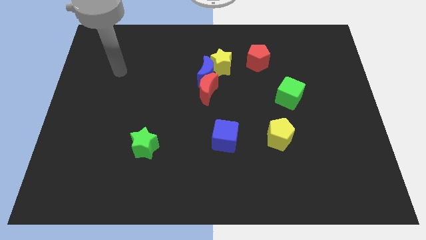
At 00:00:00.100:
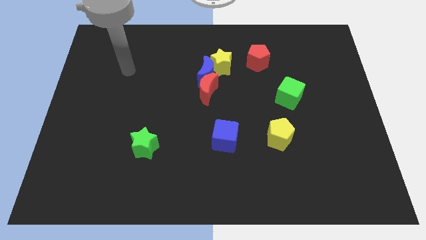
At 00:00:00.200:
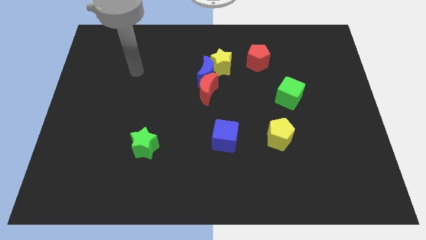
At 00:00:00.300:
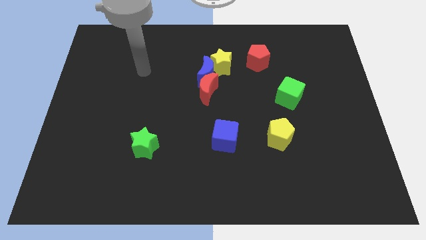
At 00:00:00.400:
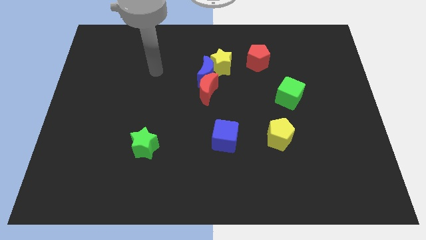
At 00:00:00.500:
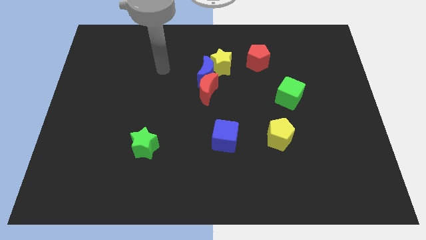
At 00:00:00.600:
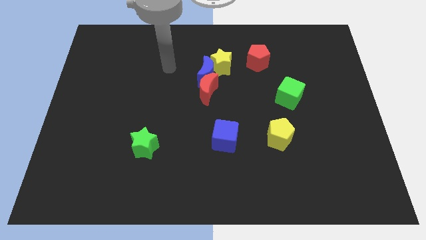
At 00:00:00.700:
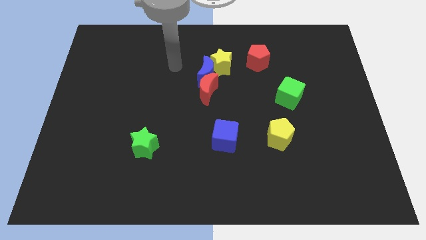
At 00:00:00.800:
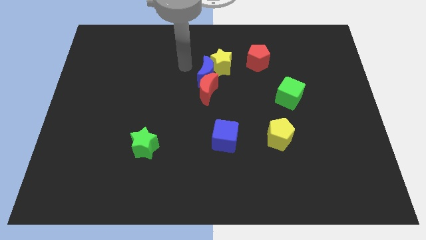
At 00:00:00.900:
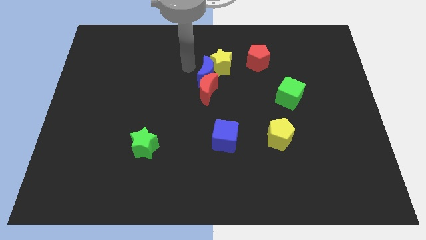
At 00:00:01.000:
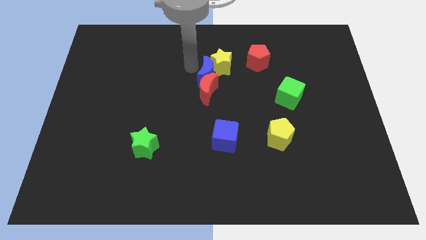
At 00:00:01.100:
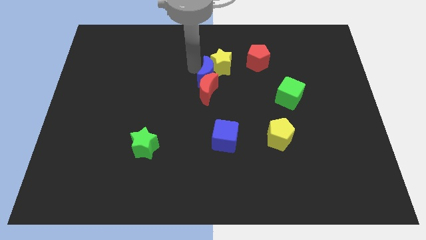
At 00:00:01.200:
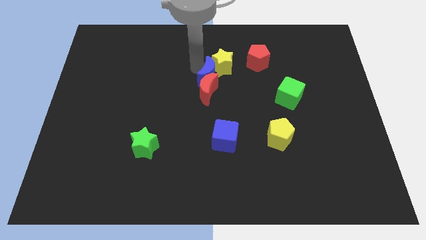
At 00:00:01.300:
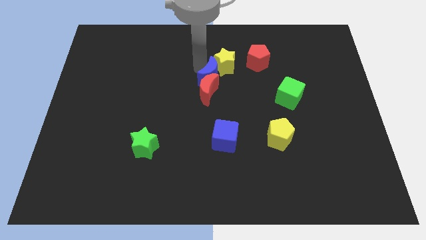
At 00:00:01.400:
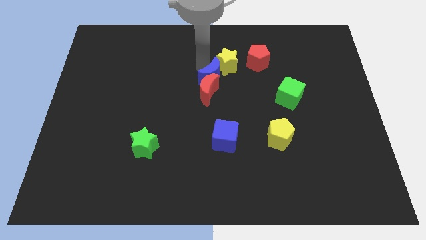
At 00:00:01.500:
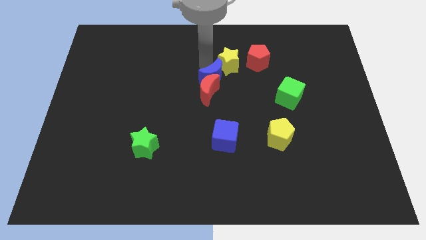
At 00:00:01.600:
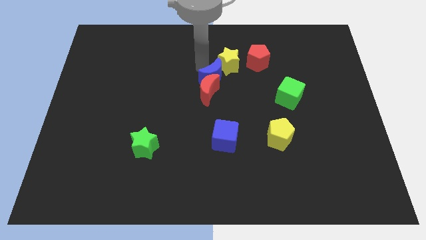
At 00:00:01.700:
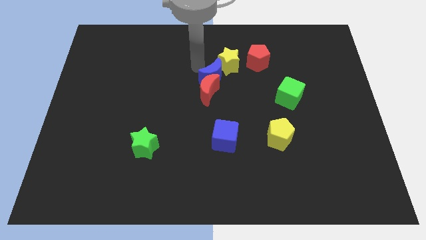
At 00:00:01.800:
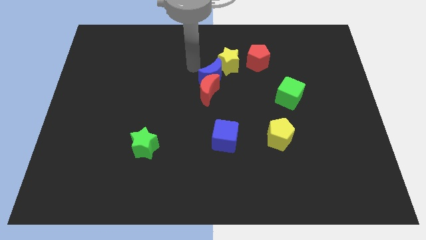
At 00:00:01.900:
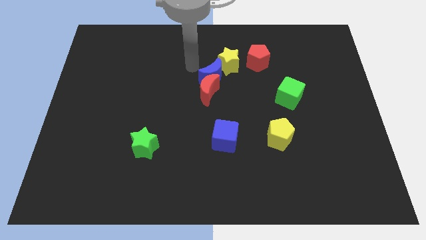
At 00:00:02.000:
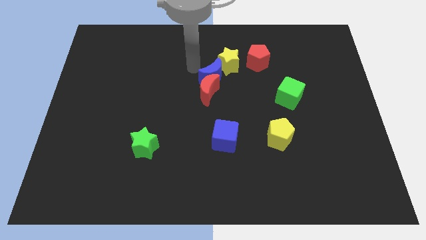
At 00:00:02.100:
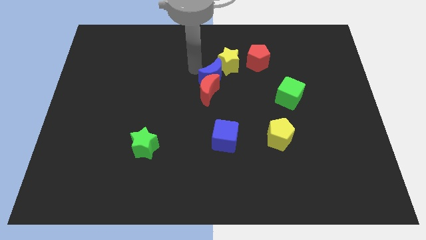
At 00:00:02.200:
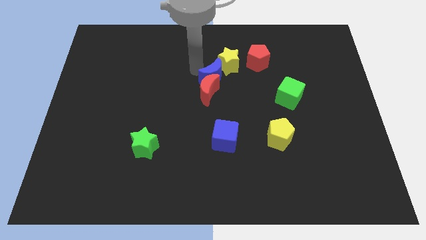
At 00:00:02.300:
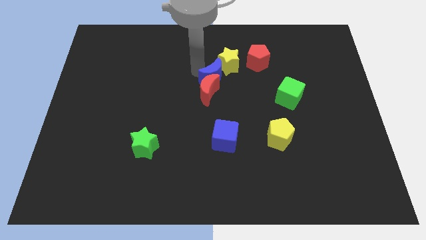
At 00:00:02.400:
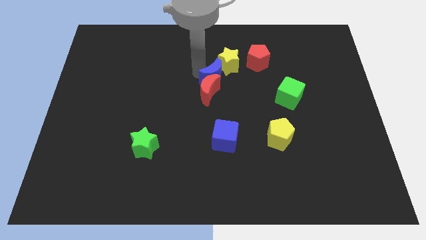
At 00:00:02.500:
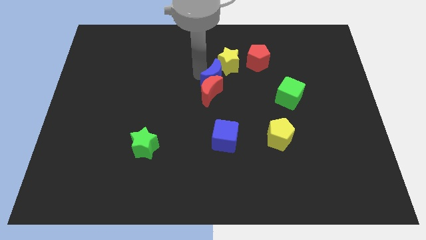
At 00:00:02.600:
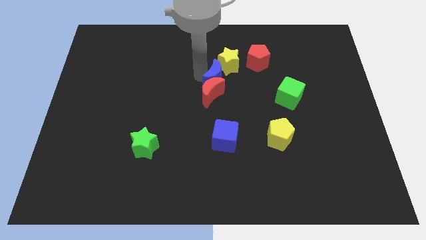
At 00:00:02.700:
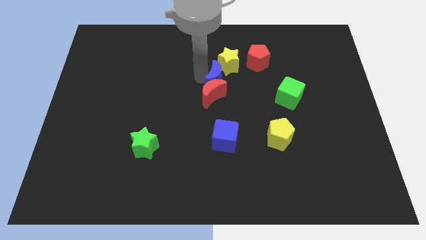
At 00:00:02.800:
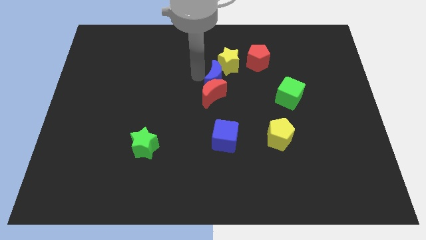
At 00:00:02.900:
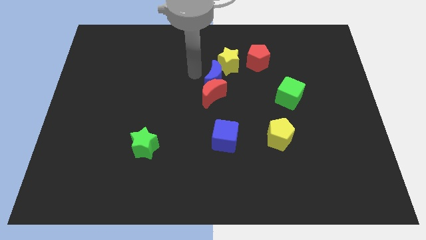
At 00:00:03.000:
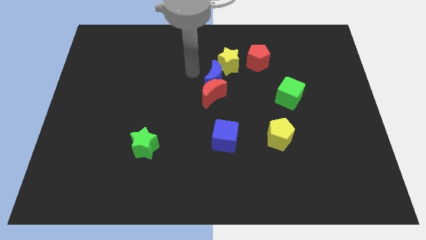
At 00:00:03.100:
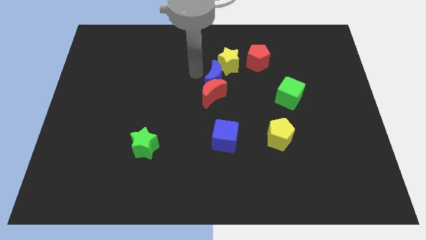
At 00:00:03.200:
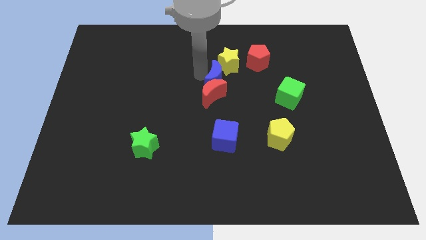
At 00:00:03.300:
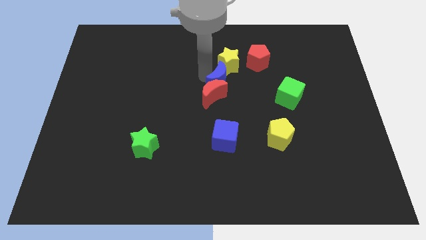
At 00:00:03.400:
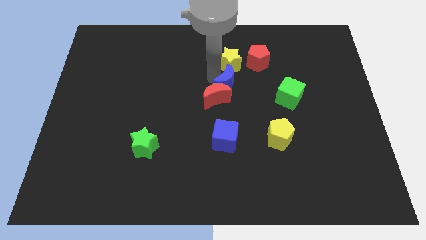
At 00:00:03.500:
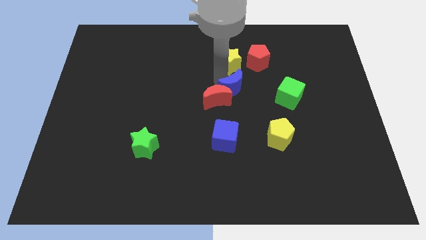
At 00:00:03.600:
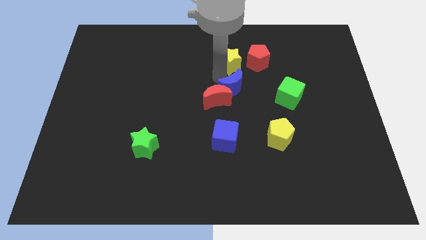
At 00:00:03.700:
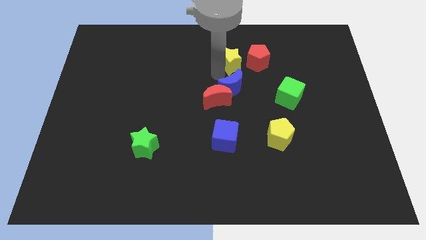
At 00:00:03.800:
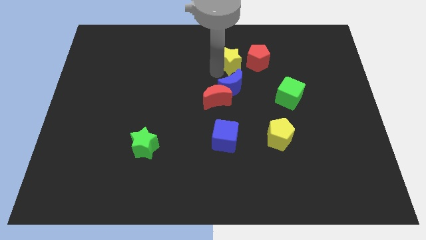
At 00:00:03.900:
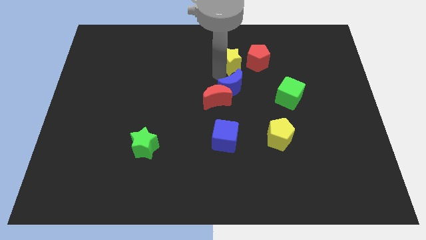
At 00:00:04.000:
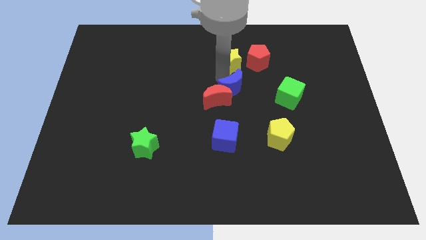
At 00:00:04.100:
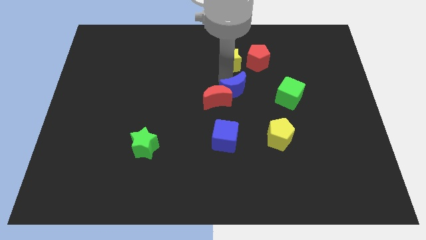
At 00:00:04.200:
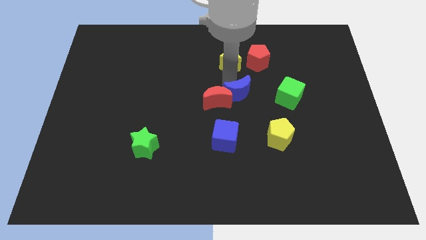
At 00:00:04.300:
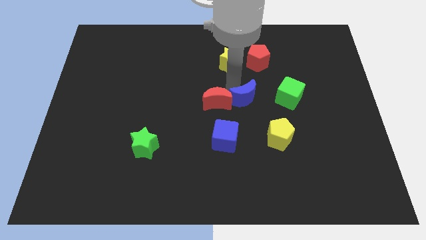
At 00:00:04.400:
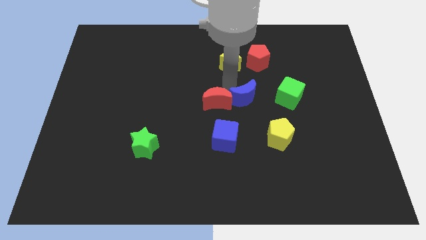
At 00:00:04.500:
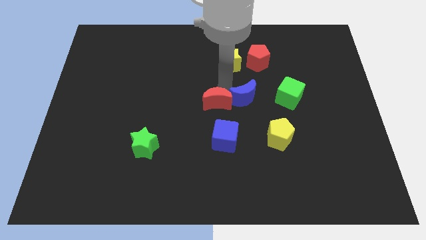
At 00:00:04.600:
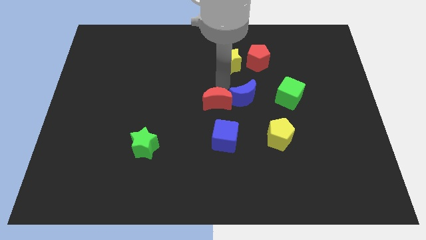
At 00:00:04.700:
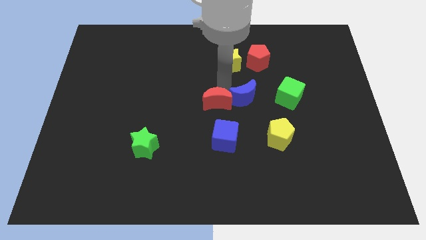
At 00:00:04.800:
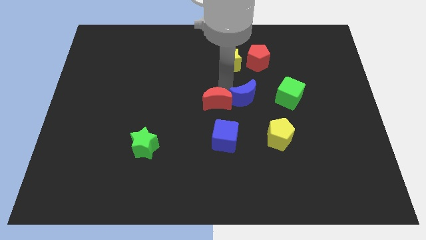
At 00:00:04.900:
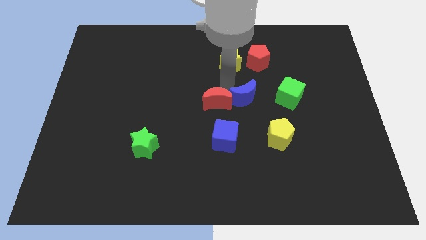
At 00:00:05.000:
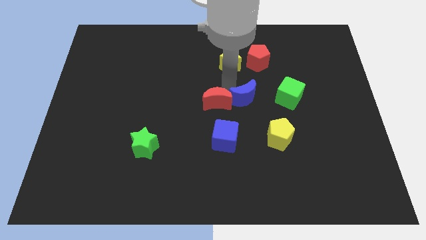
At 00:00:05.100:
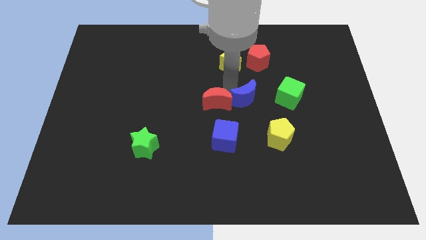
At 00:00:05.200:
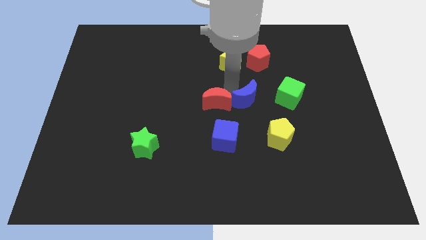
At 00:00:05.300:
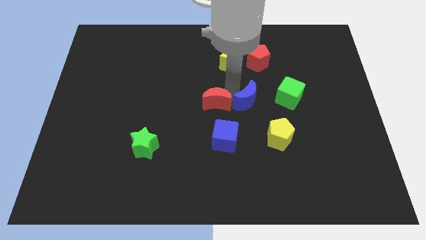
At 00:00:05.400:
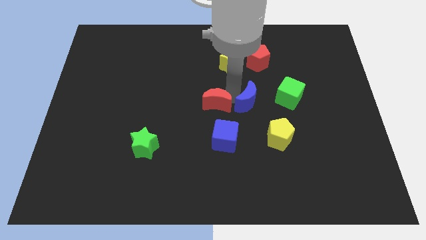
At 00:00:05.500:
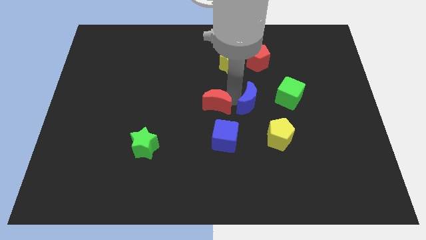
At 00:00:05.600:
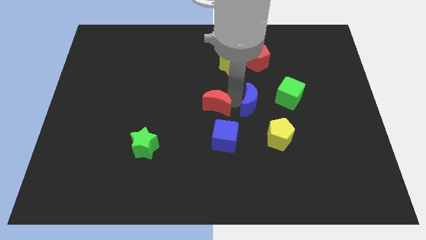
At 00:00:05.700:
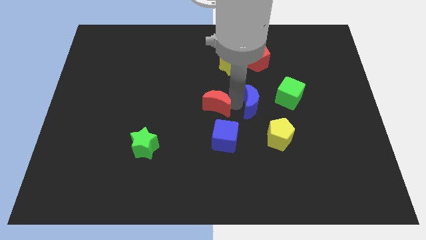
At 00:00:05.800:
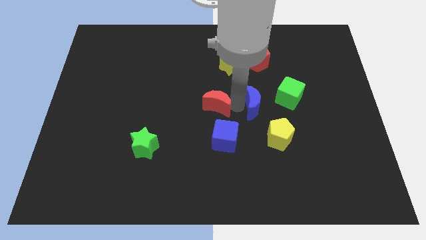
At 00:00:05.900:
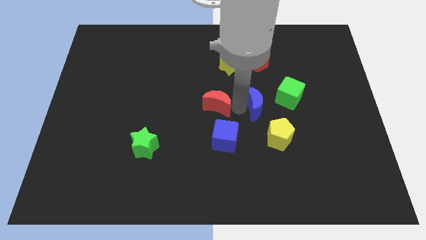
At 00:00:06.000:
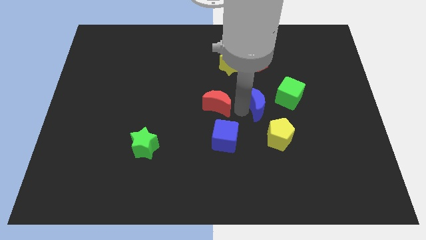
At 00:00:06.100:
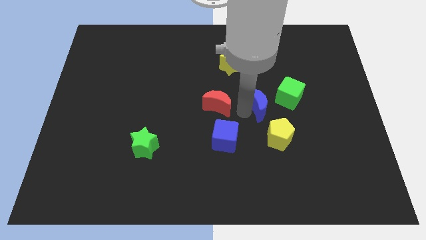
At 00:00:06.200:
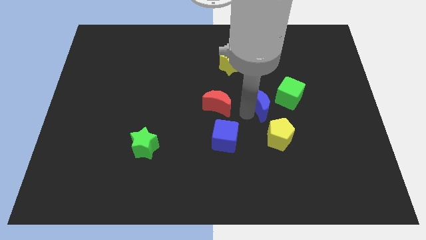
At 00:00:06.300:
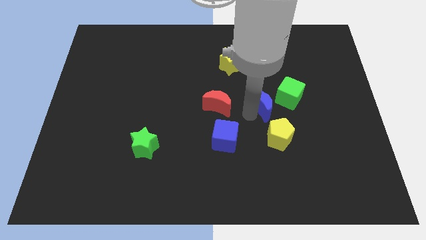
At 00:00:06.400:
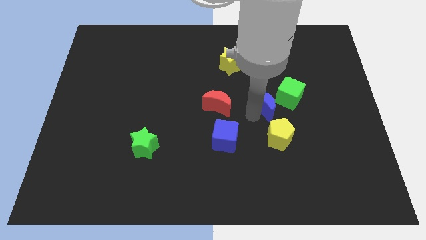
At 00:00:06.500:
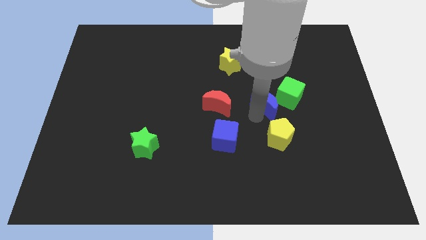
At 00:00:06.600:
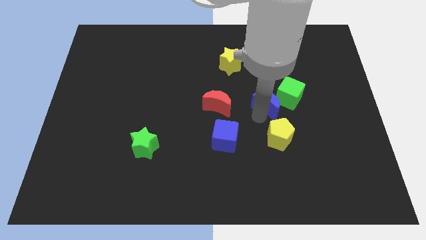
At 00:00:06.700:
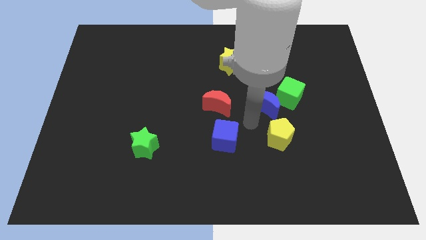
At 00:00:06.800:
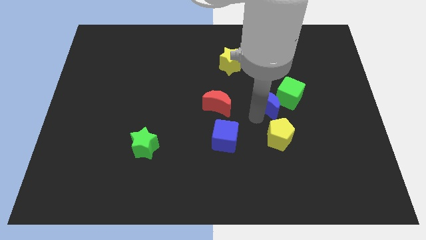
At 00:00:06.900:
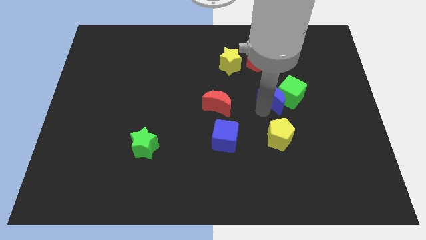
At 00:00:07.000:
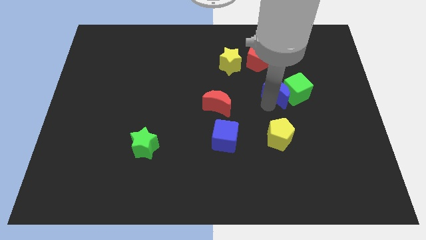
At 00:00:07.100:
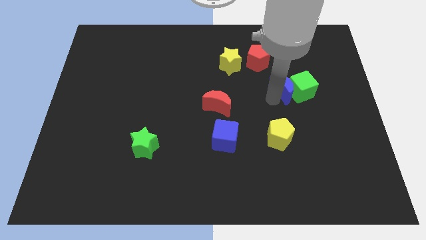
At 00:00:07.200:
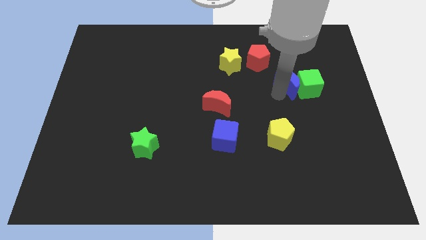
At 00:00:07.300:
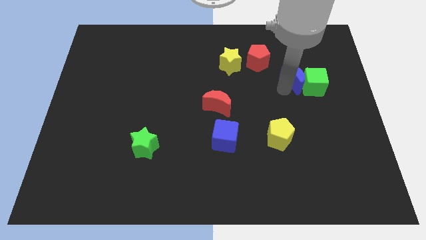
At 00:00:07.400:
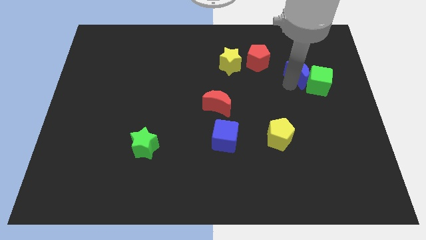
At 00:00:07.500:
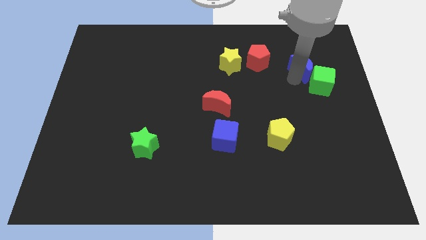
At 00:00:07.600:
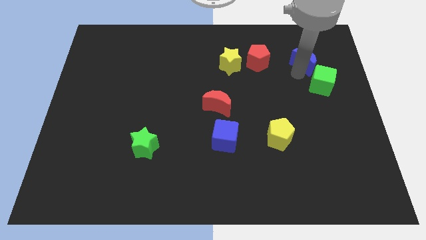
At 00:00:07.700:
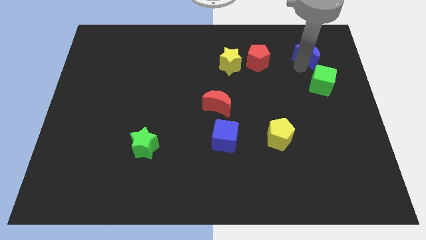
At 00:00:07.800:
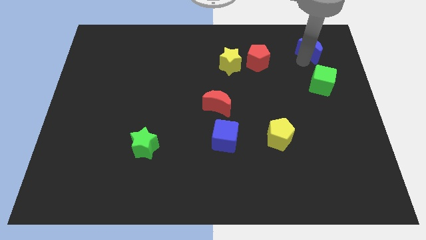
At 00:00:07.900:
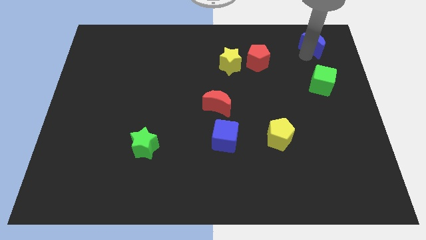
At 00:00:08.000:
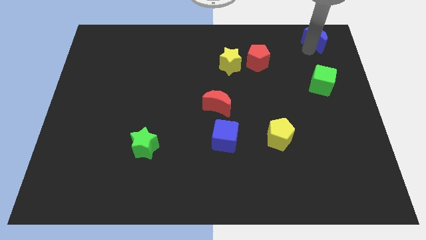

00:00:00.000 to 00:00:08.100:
push the blue moon to the top right corner
